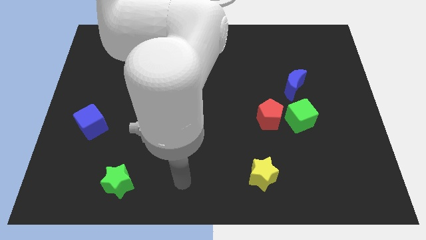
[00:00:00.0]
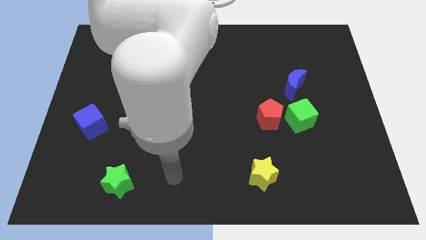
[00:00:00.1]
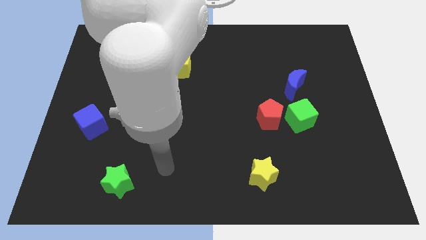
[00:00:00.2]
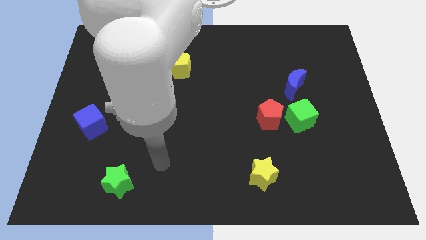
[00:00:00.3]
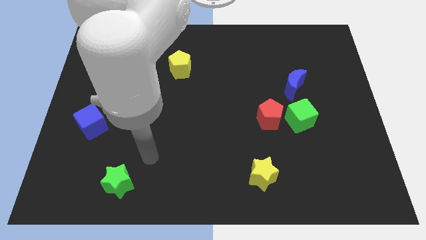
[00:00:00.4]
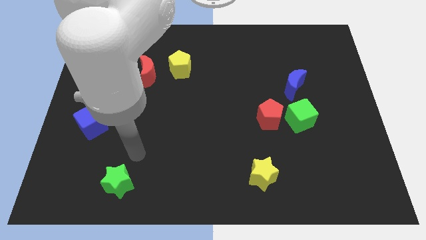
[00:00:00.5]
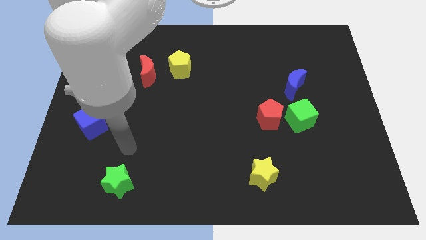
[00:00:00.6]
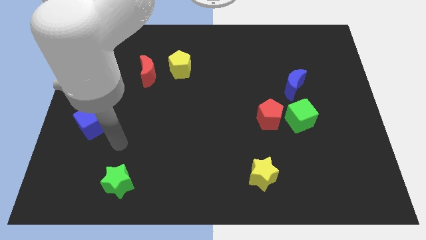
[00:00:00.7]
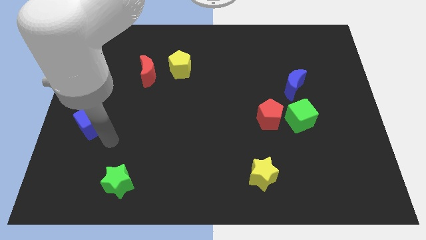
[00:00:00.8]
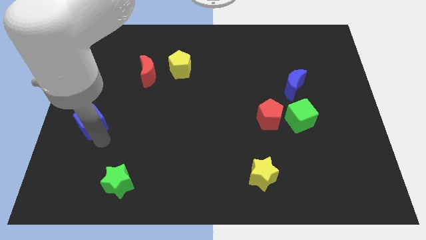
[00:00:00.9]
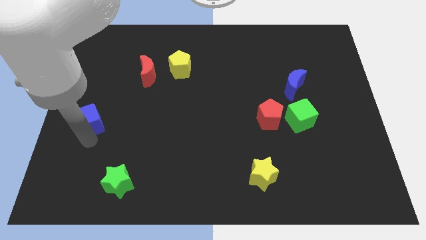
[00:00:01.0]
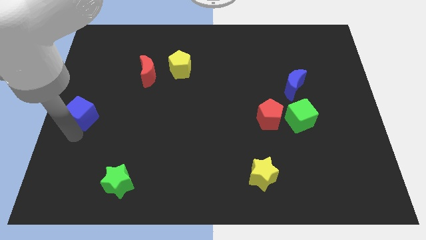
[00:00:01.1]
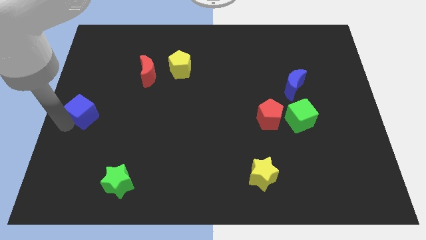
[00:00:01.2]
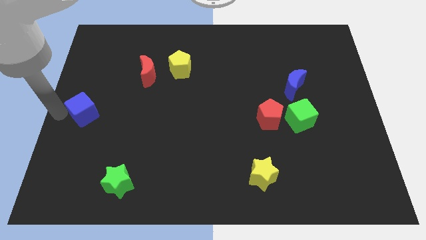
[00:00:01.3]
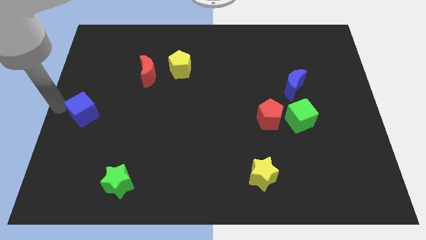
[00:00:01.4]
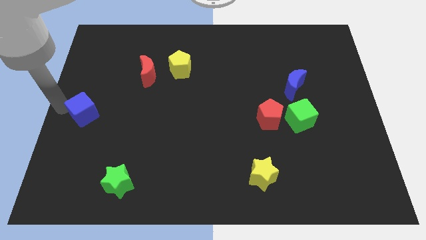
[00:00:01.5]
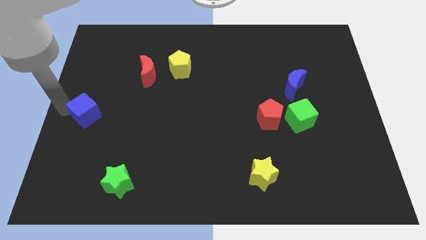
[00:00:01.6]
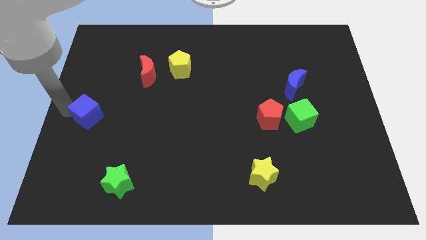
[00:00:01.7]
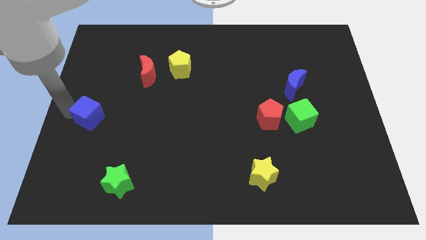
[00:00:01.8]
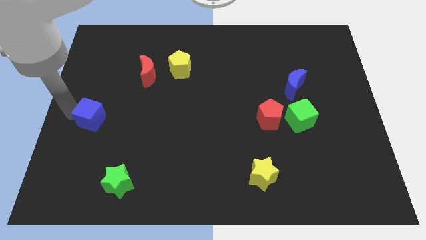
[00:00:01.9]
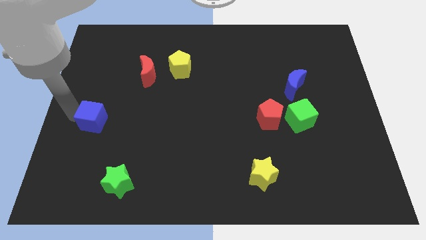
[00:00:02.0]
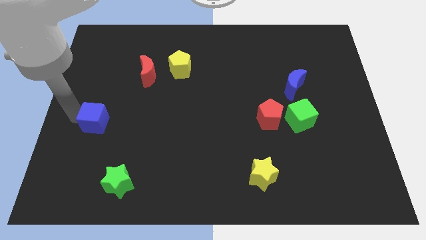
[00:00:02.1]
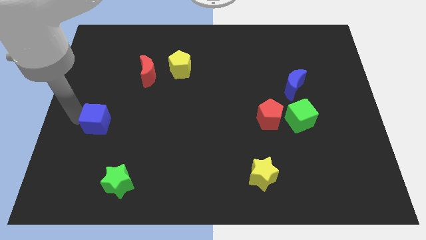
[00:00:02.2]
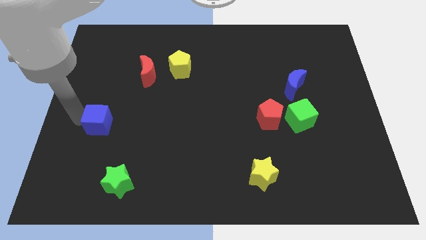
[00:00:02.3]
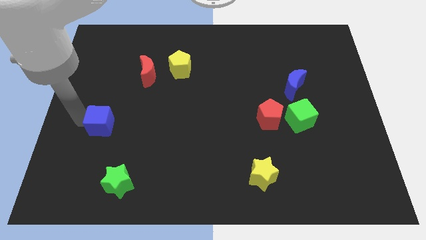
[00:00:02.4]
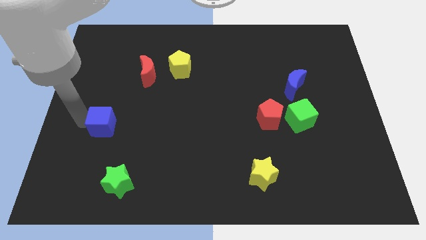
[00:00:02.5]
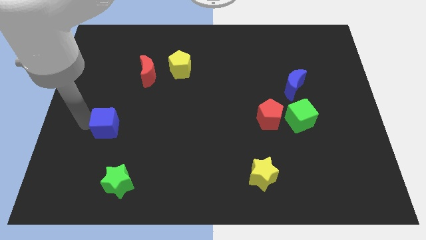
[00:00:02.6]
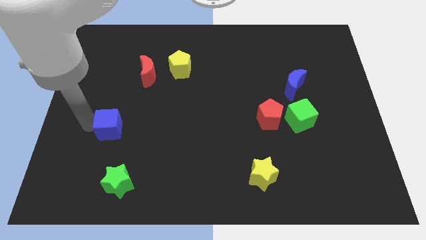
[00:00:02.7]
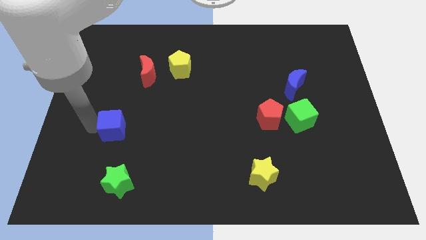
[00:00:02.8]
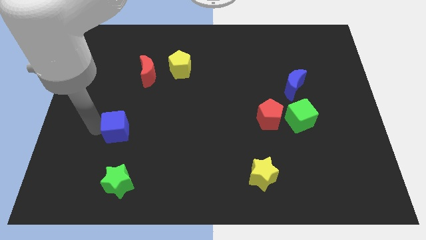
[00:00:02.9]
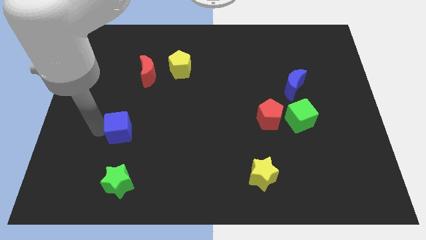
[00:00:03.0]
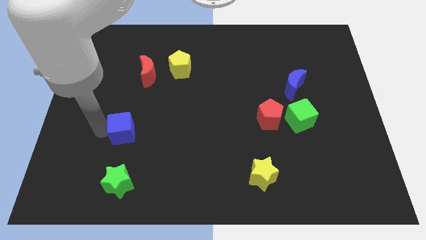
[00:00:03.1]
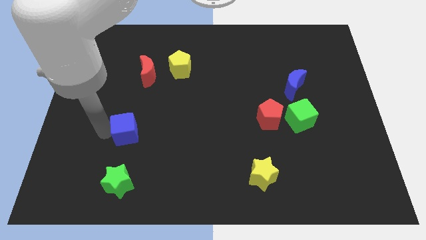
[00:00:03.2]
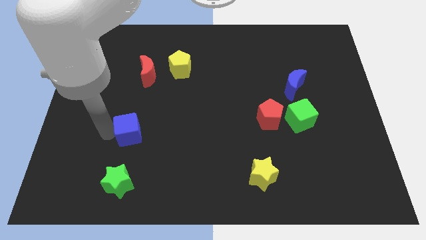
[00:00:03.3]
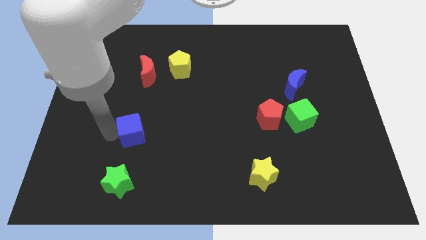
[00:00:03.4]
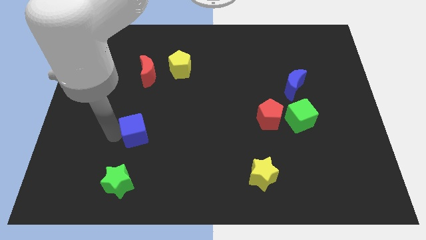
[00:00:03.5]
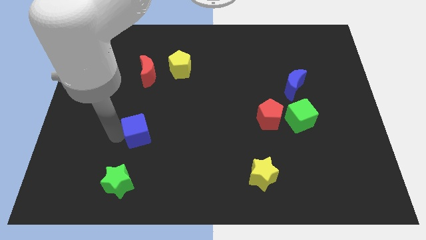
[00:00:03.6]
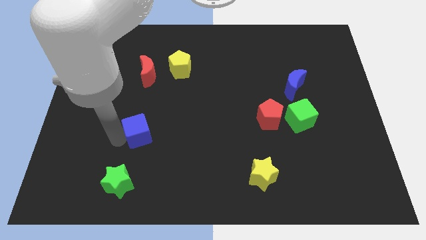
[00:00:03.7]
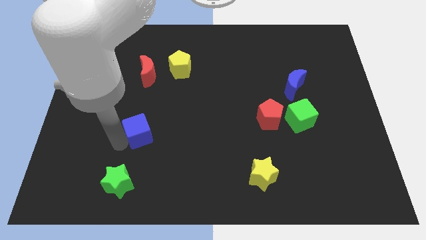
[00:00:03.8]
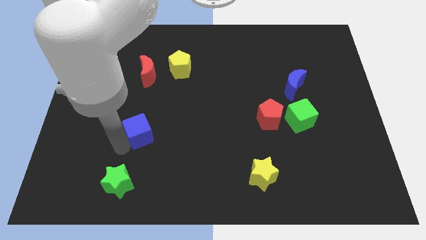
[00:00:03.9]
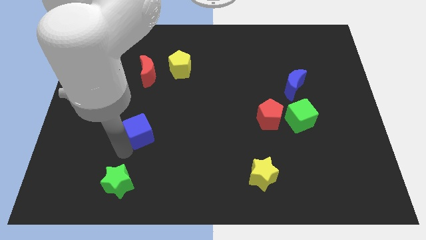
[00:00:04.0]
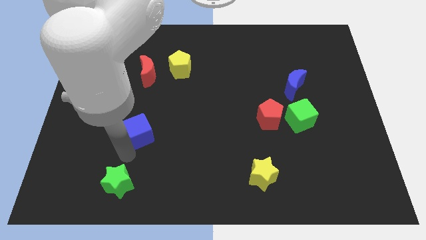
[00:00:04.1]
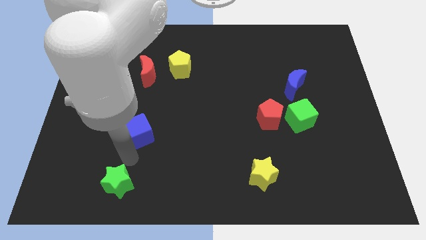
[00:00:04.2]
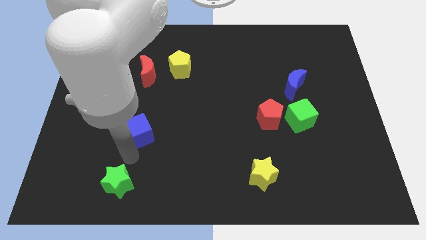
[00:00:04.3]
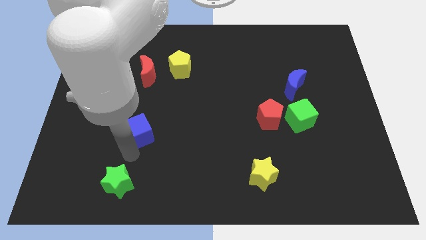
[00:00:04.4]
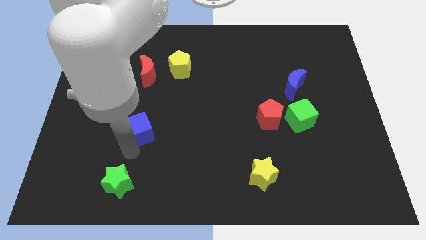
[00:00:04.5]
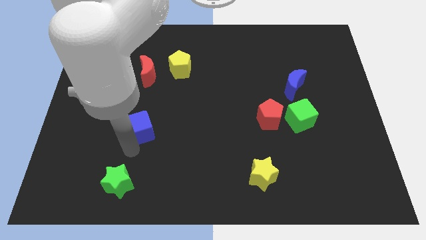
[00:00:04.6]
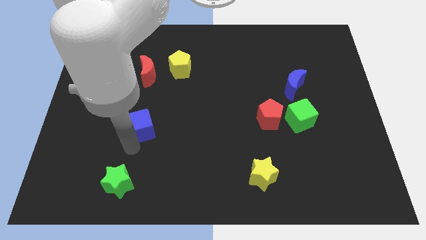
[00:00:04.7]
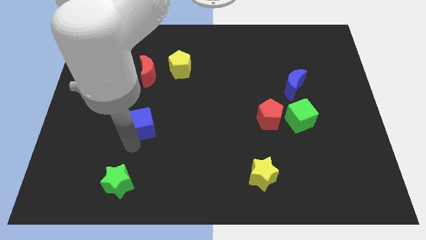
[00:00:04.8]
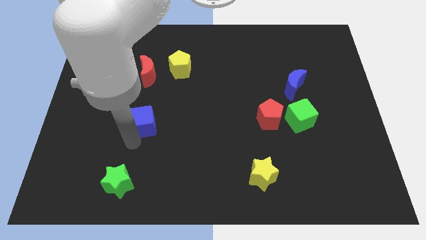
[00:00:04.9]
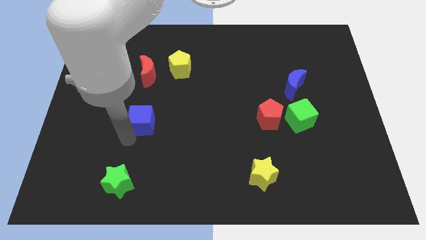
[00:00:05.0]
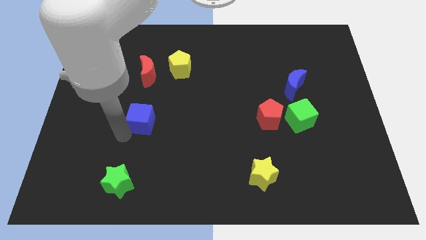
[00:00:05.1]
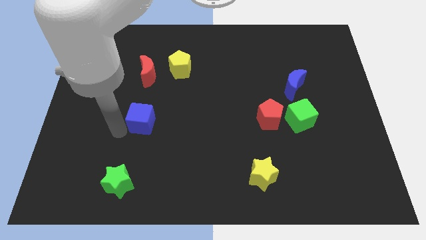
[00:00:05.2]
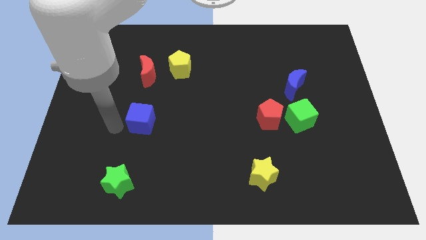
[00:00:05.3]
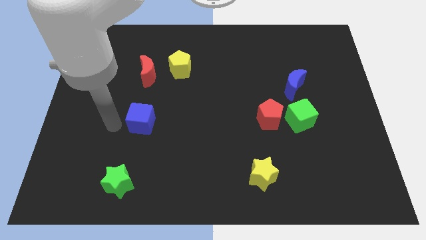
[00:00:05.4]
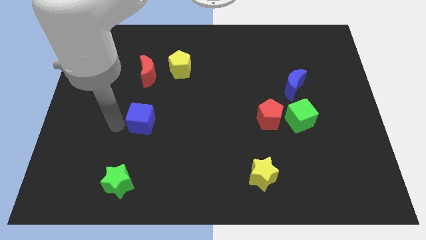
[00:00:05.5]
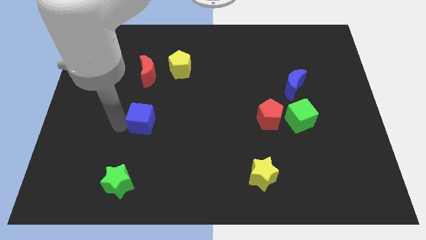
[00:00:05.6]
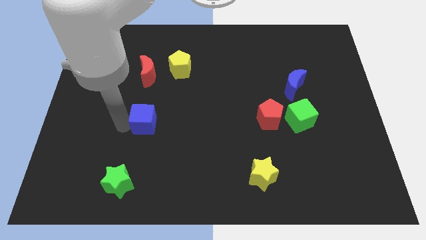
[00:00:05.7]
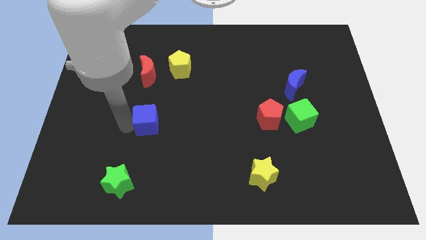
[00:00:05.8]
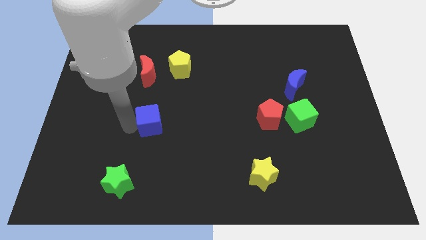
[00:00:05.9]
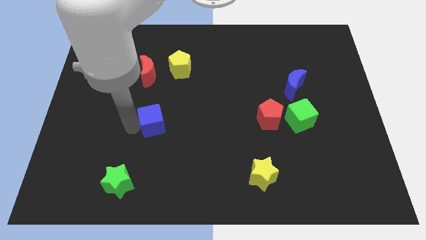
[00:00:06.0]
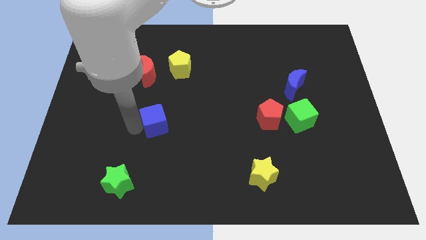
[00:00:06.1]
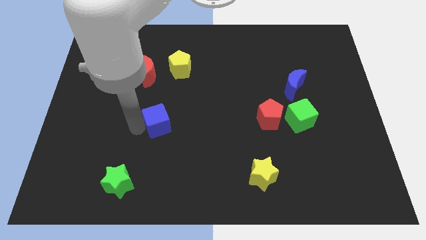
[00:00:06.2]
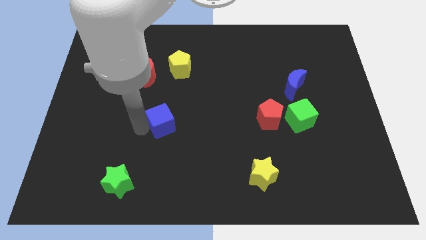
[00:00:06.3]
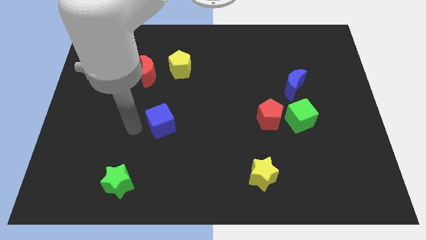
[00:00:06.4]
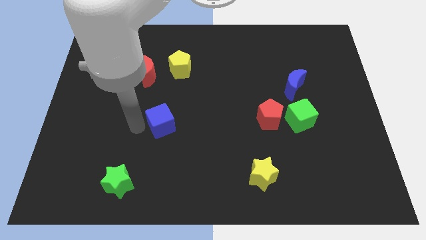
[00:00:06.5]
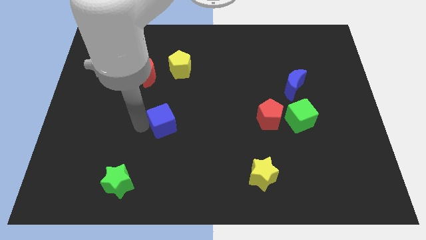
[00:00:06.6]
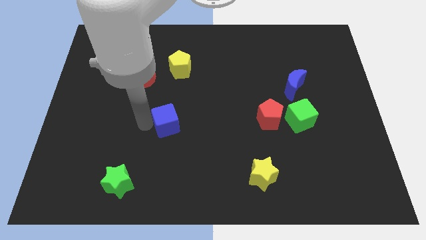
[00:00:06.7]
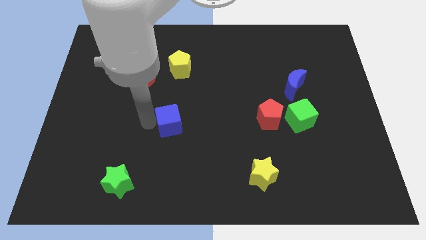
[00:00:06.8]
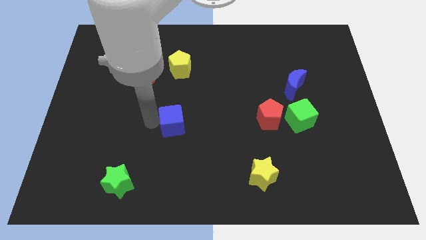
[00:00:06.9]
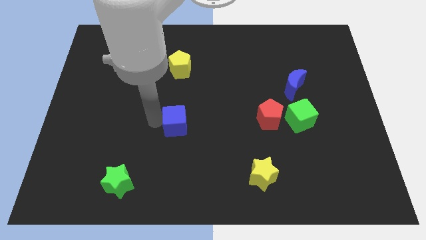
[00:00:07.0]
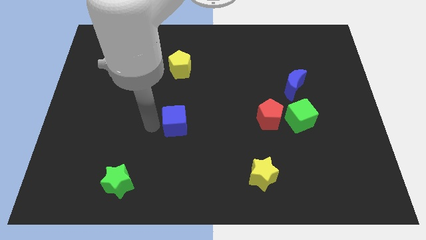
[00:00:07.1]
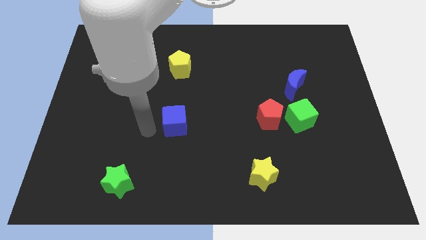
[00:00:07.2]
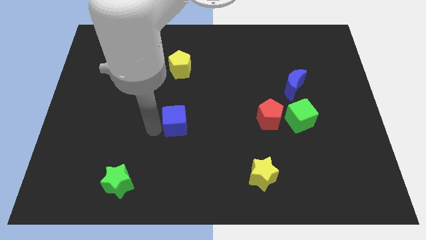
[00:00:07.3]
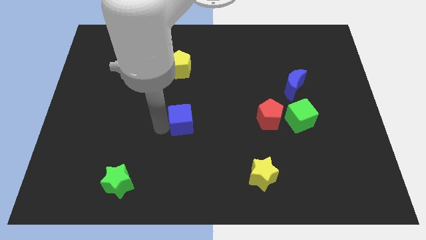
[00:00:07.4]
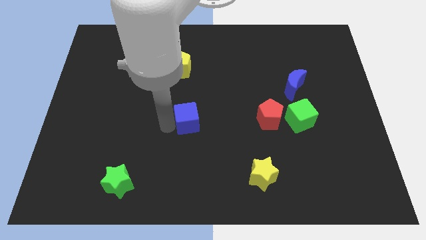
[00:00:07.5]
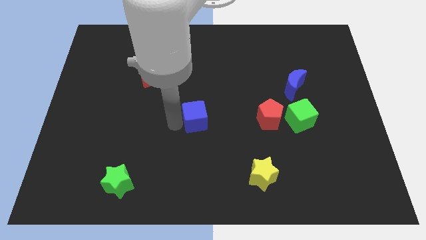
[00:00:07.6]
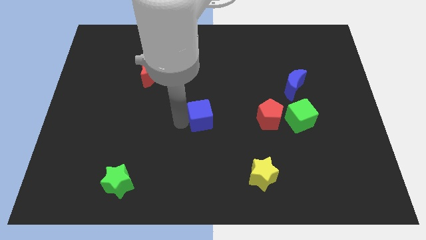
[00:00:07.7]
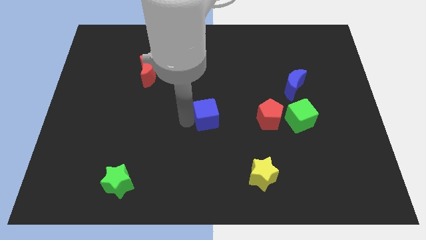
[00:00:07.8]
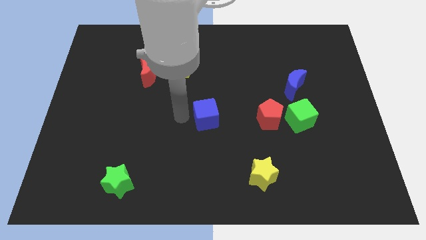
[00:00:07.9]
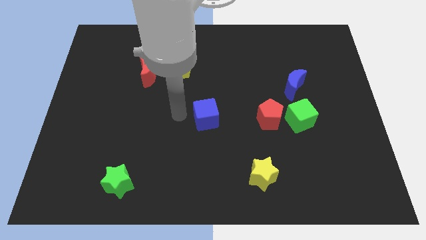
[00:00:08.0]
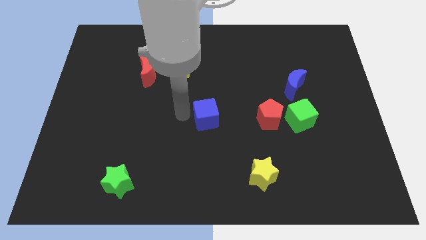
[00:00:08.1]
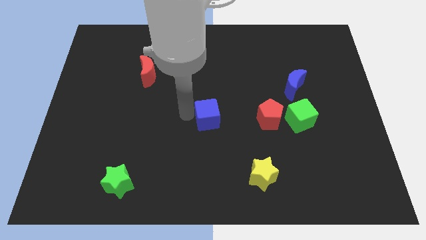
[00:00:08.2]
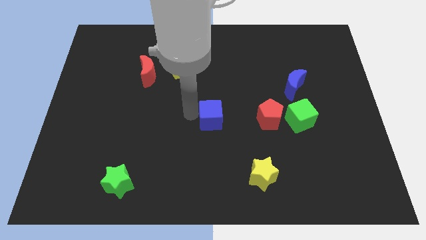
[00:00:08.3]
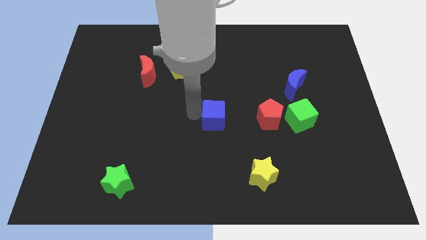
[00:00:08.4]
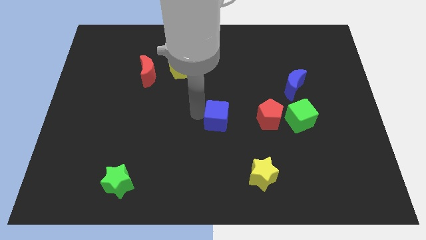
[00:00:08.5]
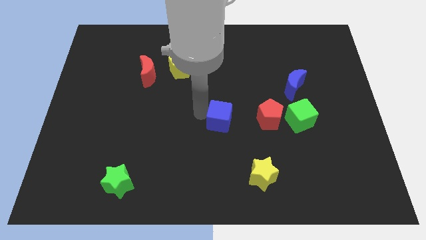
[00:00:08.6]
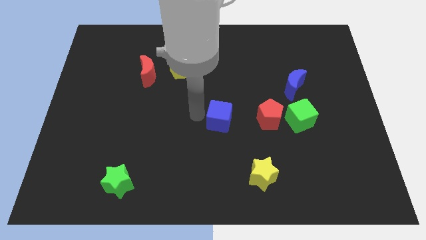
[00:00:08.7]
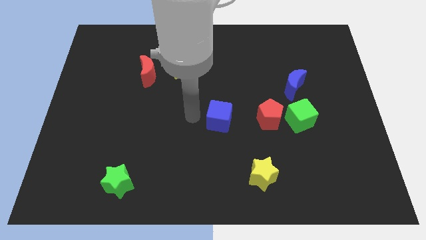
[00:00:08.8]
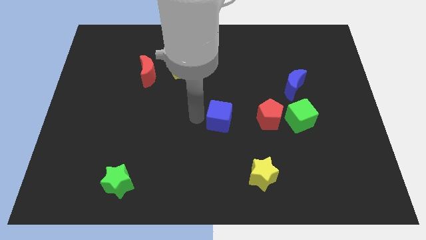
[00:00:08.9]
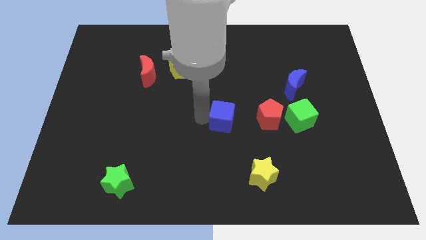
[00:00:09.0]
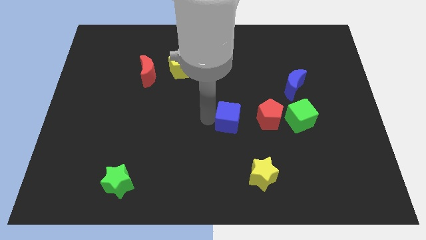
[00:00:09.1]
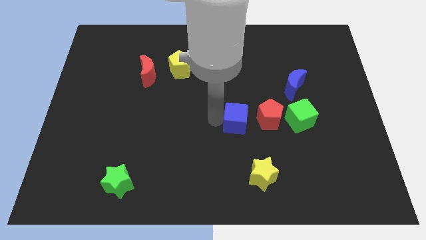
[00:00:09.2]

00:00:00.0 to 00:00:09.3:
push the blue cube to the left of the green cube
